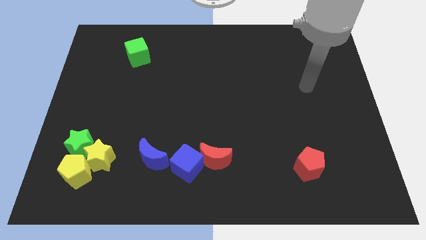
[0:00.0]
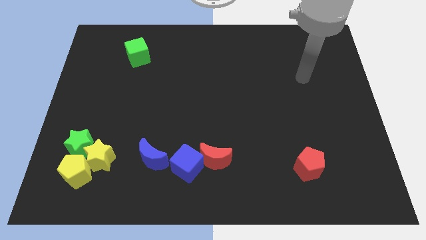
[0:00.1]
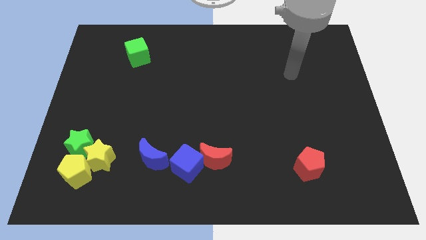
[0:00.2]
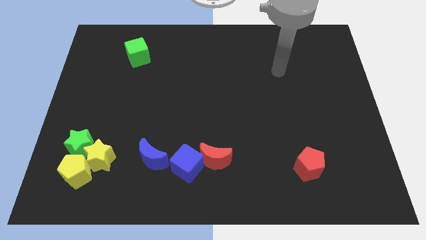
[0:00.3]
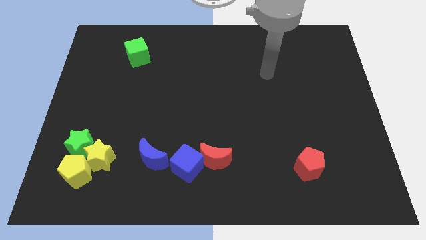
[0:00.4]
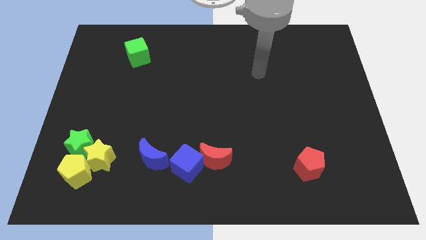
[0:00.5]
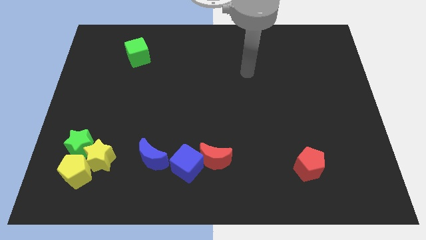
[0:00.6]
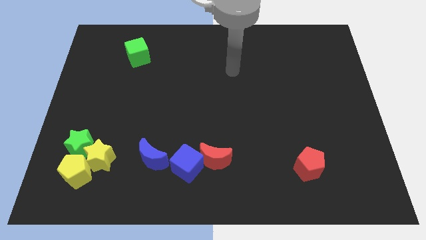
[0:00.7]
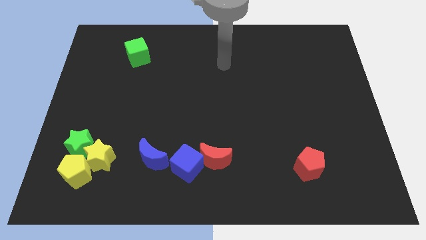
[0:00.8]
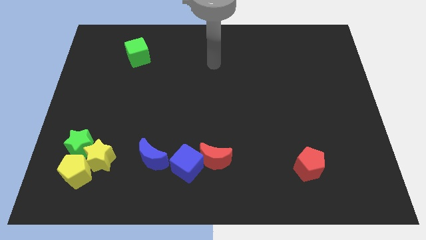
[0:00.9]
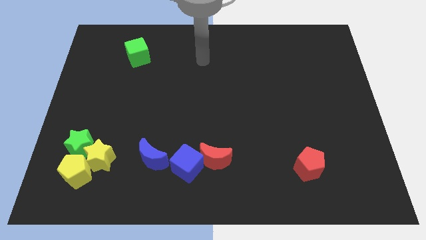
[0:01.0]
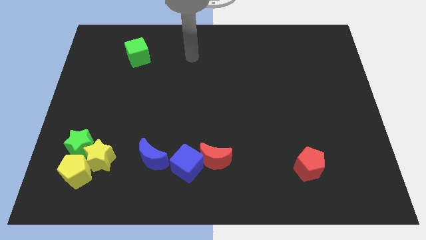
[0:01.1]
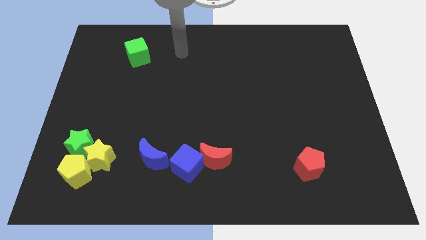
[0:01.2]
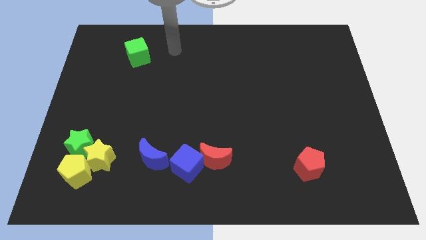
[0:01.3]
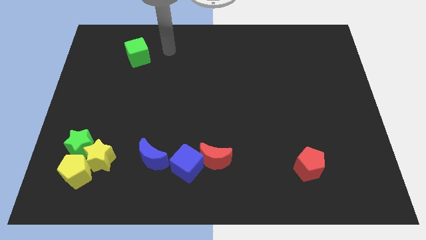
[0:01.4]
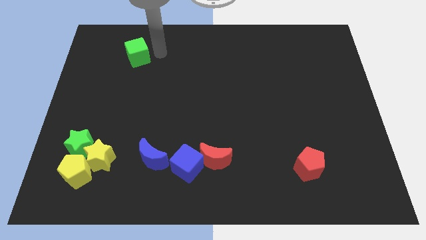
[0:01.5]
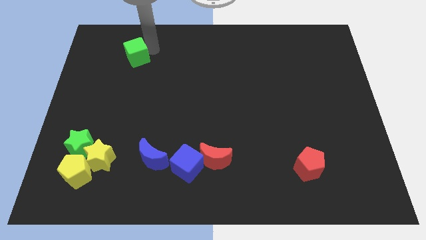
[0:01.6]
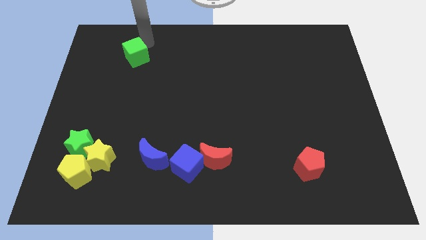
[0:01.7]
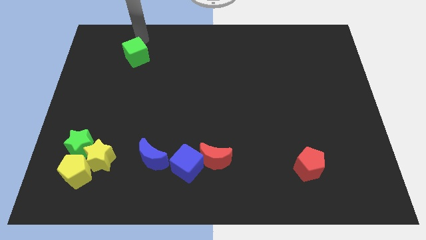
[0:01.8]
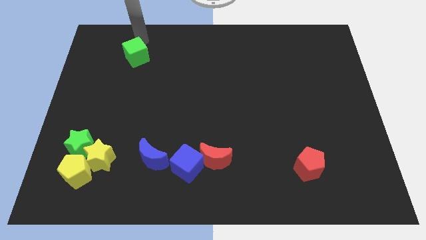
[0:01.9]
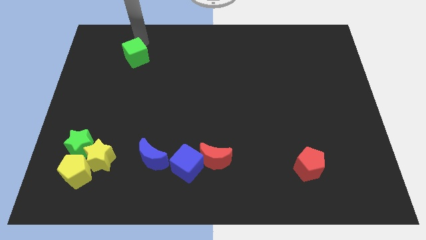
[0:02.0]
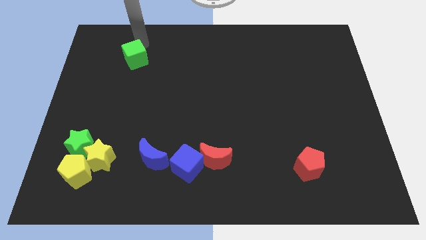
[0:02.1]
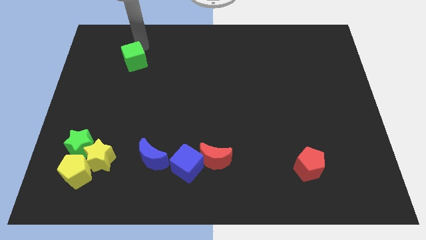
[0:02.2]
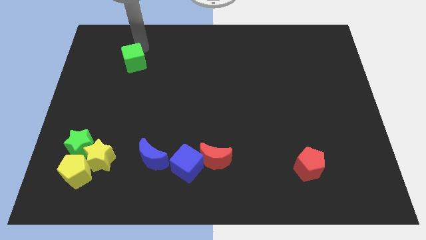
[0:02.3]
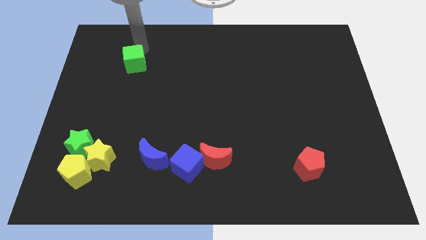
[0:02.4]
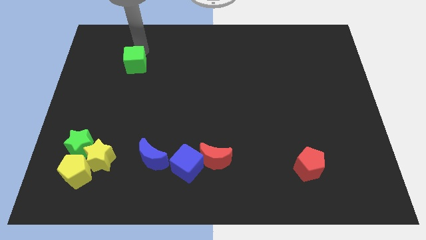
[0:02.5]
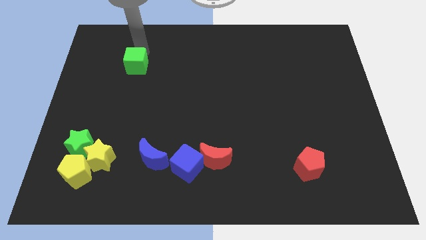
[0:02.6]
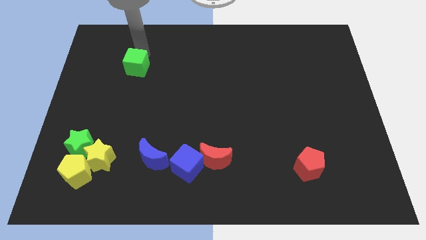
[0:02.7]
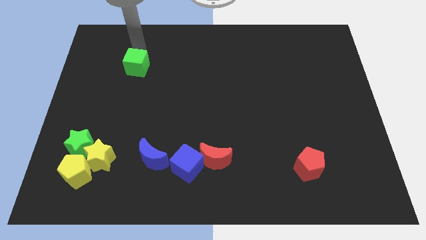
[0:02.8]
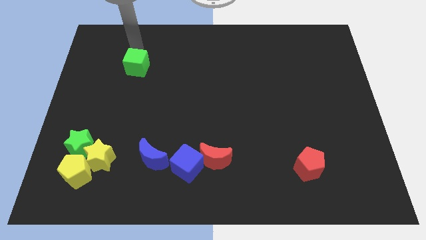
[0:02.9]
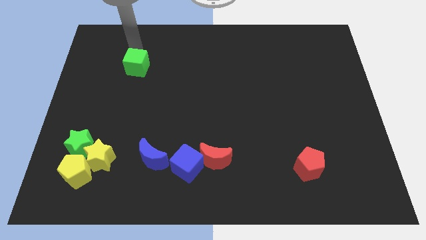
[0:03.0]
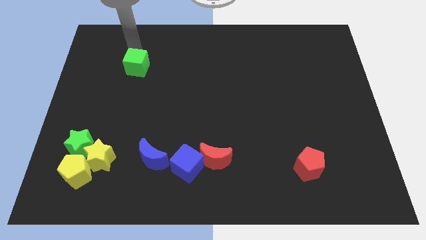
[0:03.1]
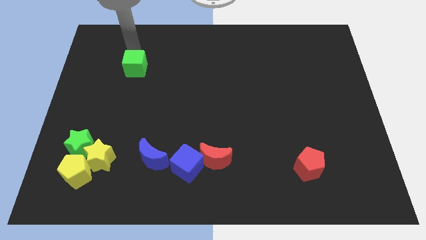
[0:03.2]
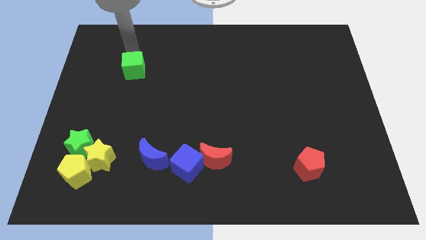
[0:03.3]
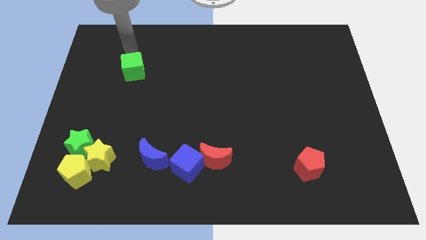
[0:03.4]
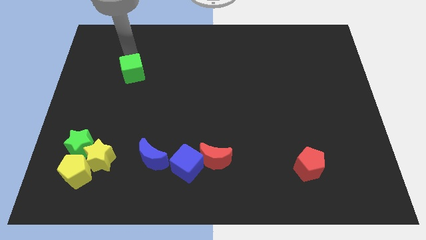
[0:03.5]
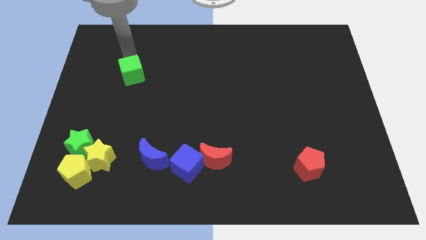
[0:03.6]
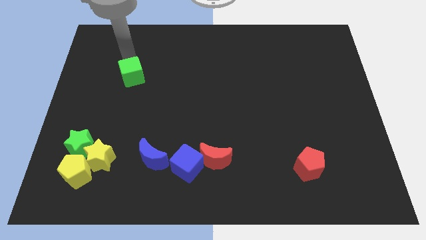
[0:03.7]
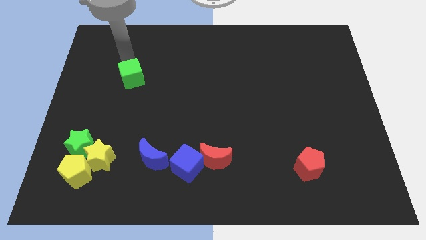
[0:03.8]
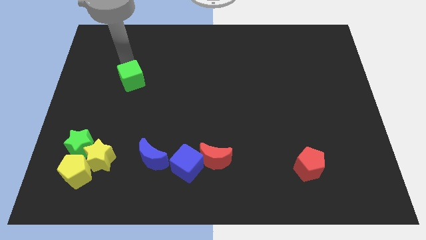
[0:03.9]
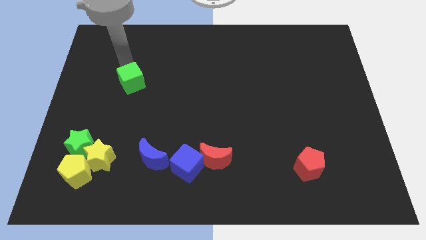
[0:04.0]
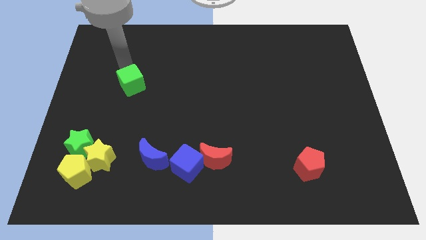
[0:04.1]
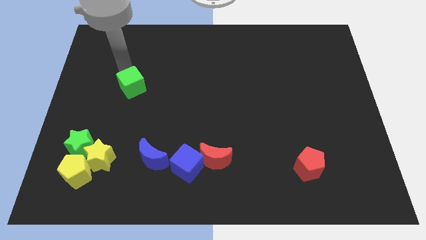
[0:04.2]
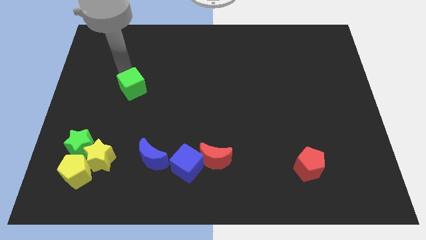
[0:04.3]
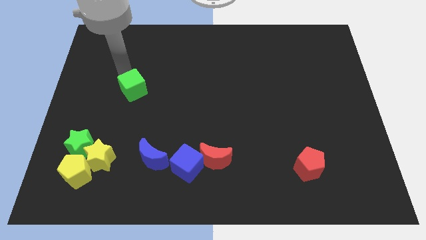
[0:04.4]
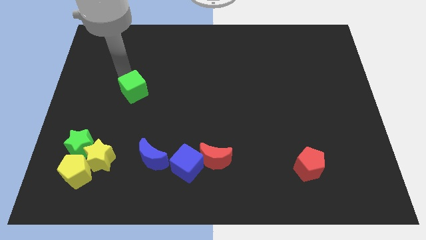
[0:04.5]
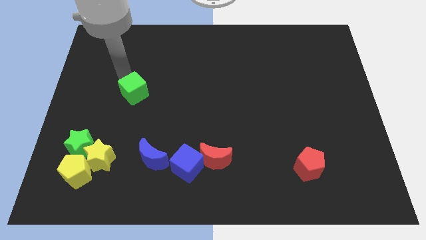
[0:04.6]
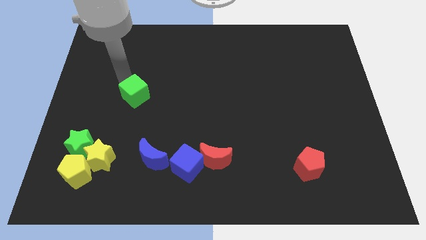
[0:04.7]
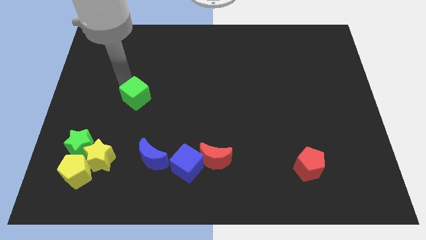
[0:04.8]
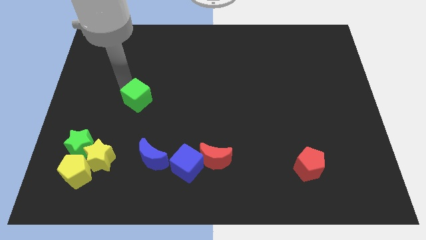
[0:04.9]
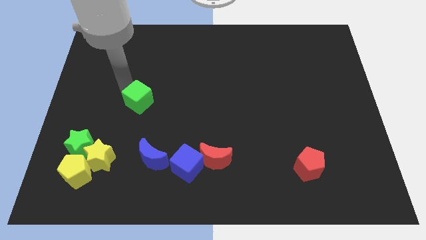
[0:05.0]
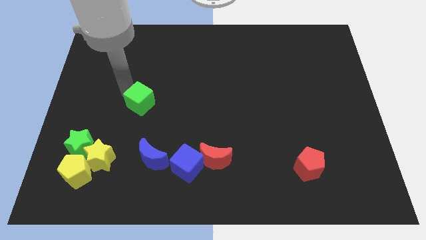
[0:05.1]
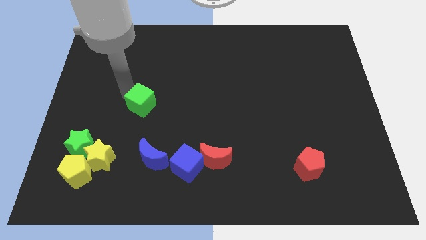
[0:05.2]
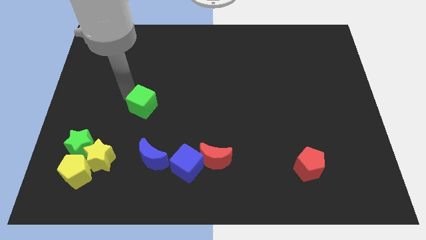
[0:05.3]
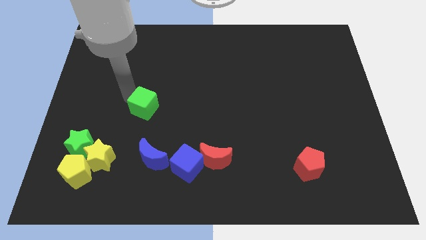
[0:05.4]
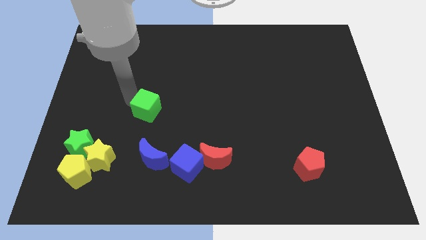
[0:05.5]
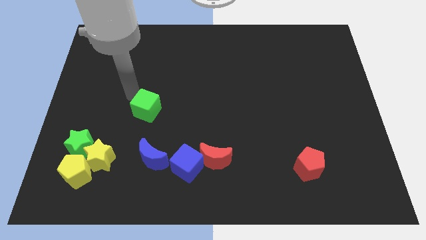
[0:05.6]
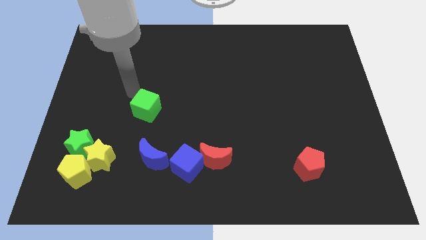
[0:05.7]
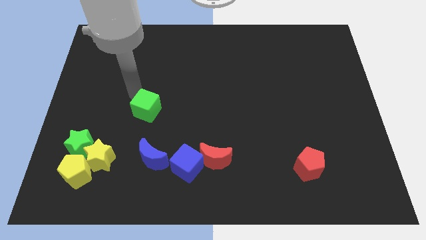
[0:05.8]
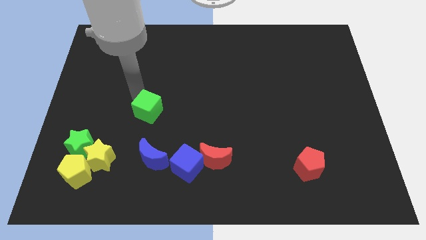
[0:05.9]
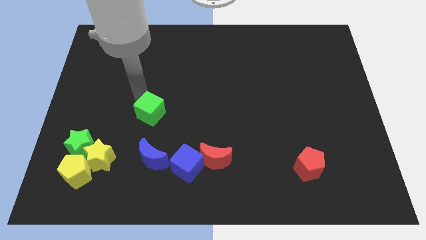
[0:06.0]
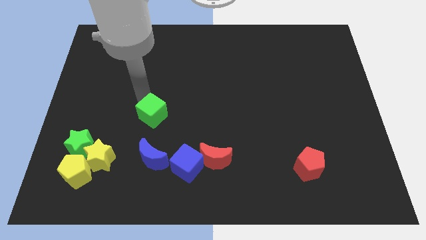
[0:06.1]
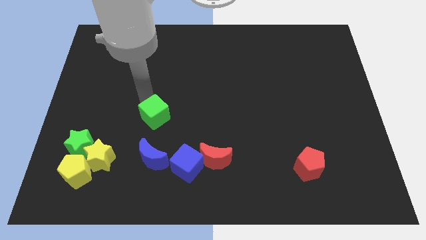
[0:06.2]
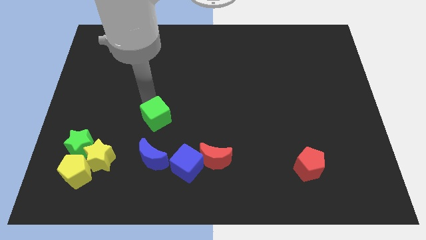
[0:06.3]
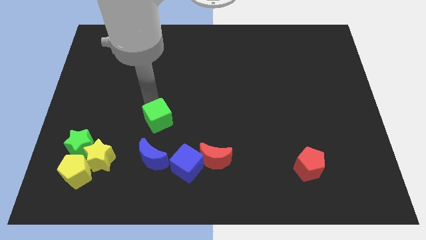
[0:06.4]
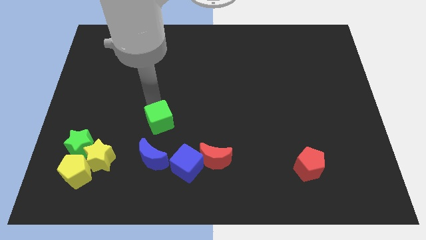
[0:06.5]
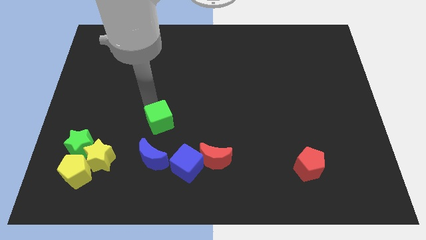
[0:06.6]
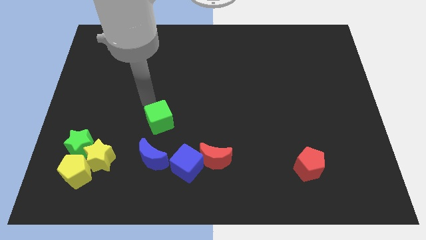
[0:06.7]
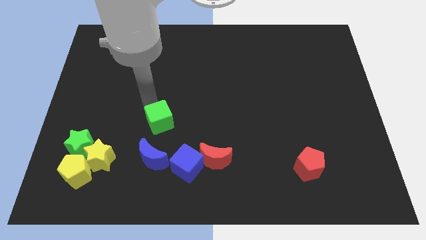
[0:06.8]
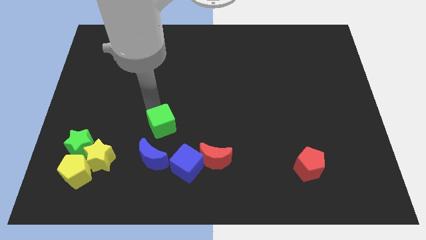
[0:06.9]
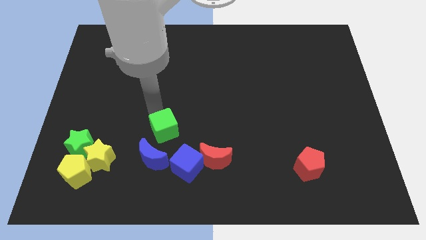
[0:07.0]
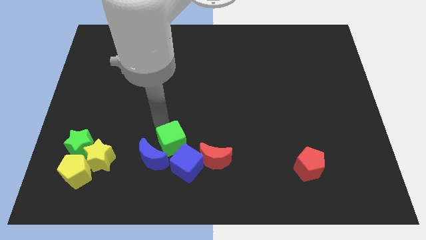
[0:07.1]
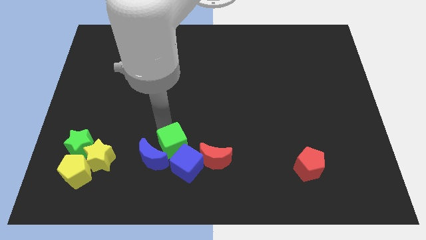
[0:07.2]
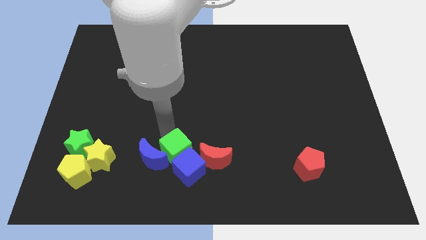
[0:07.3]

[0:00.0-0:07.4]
push the green cube to the blue cube
